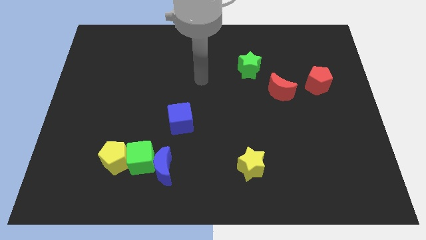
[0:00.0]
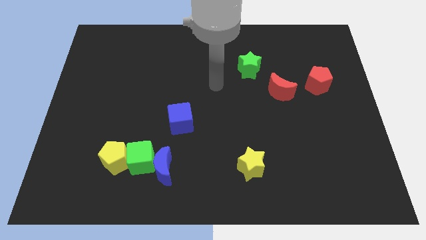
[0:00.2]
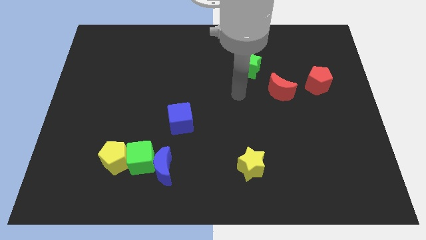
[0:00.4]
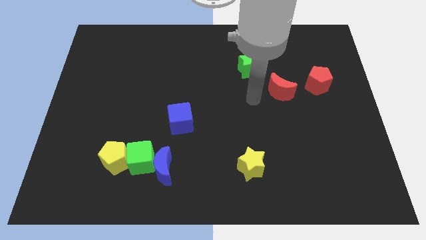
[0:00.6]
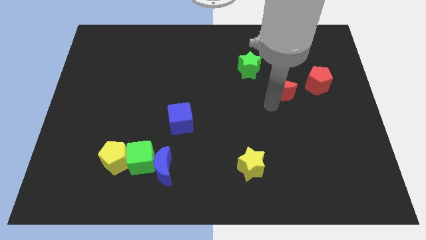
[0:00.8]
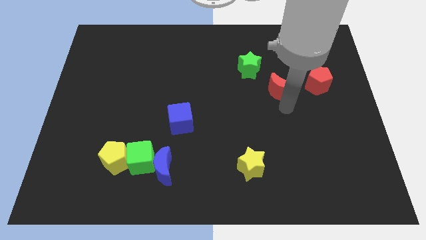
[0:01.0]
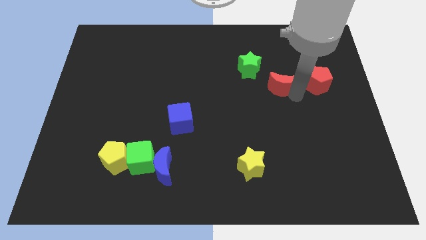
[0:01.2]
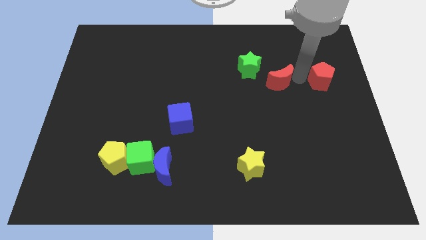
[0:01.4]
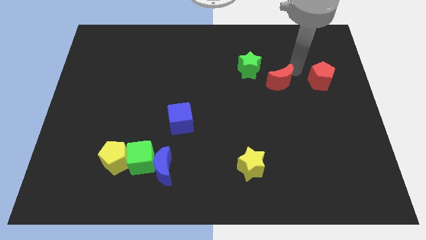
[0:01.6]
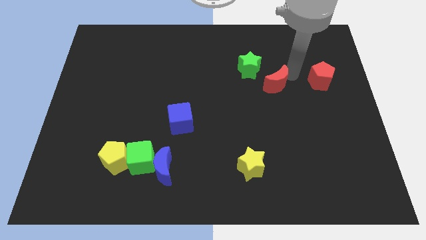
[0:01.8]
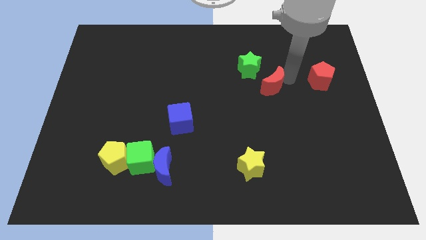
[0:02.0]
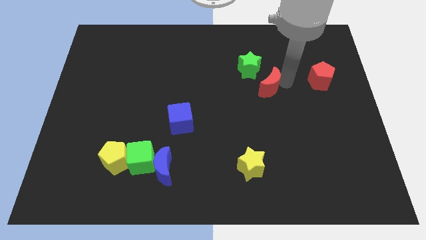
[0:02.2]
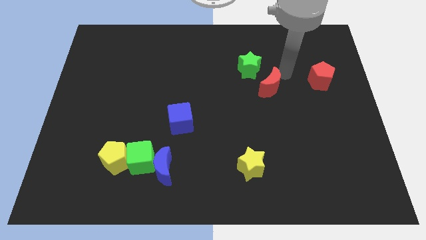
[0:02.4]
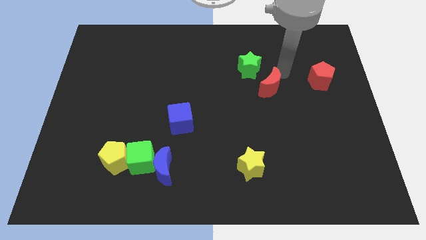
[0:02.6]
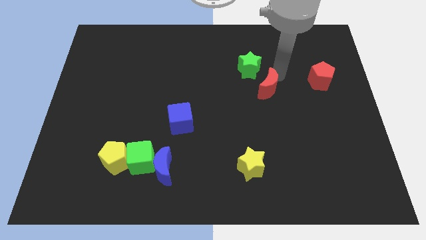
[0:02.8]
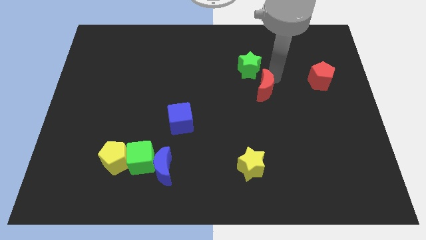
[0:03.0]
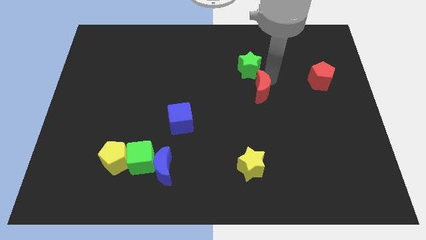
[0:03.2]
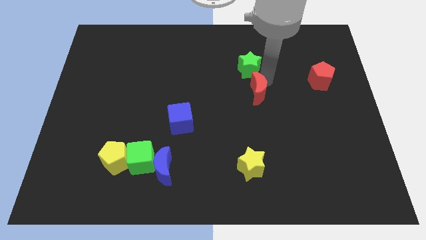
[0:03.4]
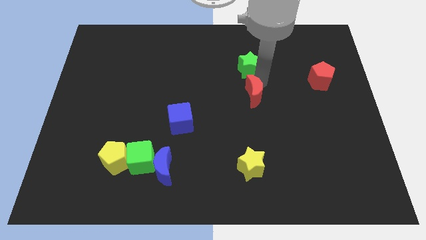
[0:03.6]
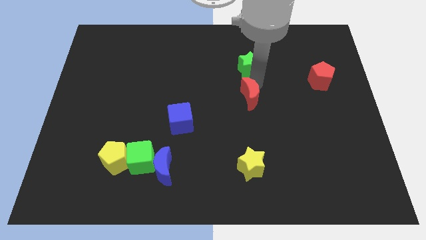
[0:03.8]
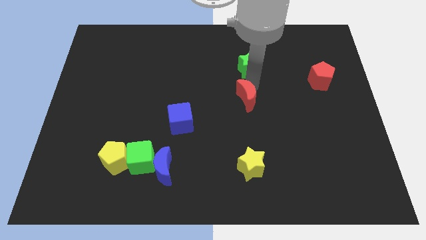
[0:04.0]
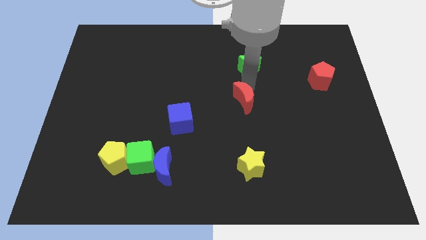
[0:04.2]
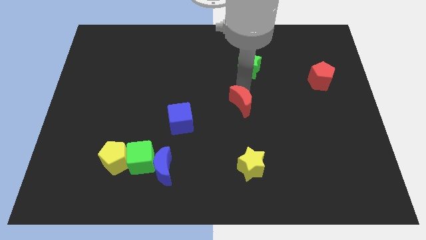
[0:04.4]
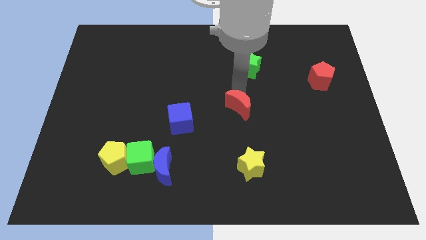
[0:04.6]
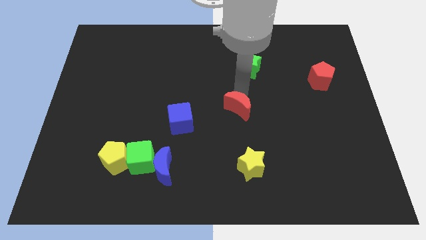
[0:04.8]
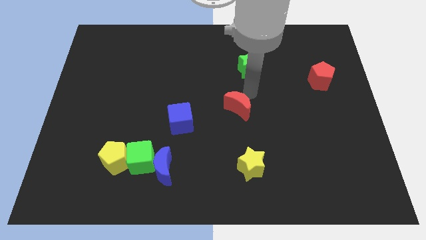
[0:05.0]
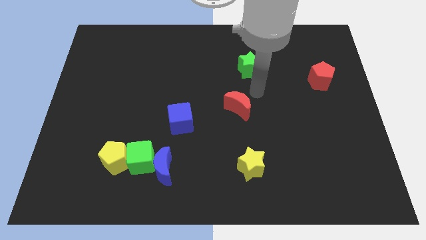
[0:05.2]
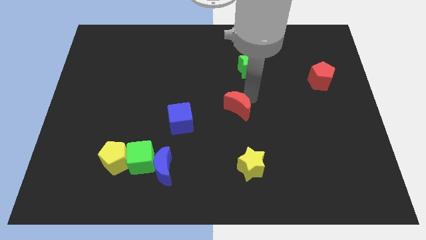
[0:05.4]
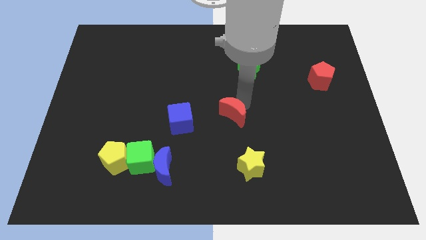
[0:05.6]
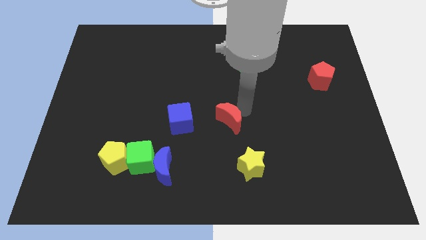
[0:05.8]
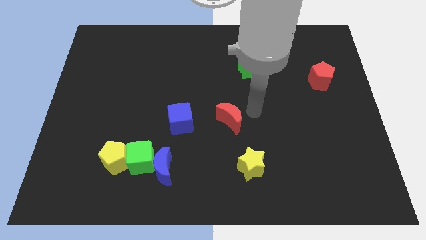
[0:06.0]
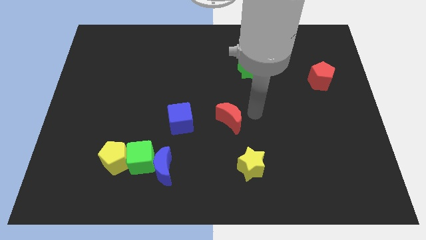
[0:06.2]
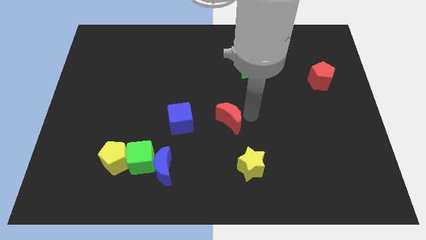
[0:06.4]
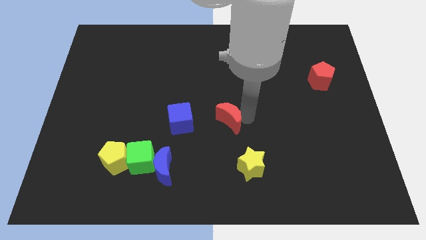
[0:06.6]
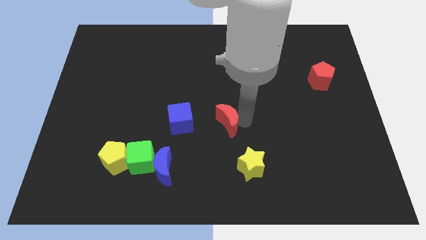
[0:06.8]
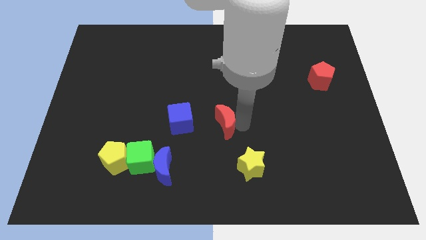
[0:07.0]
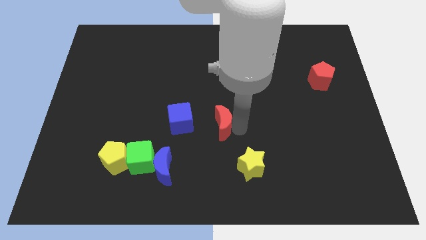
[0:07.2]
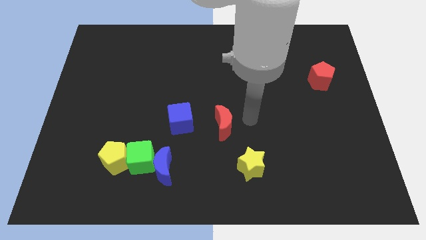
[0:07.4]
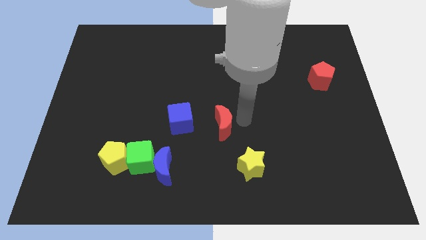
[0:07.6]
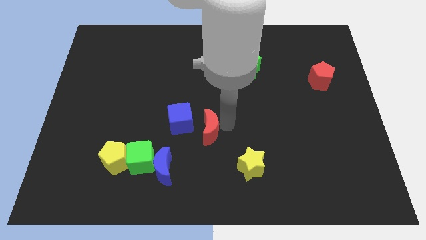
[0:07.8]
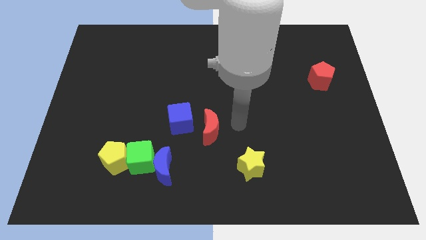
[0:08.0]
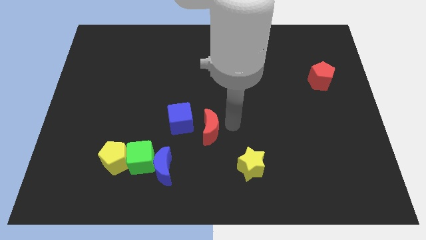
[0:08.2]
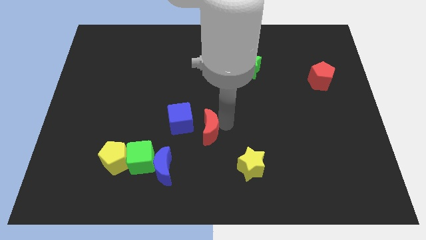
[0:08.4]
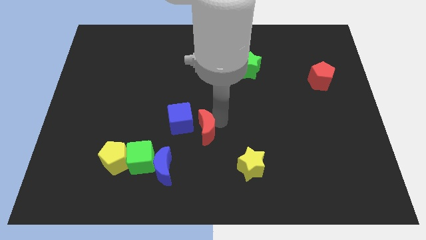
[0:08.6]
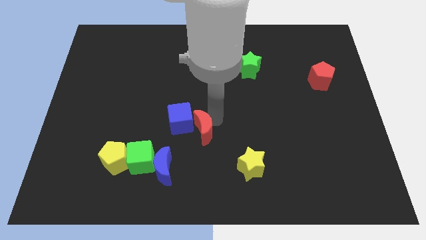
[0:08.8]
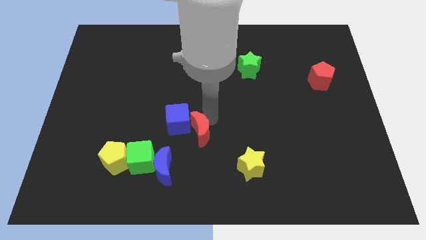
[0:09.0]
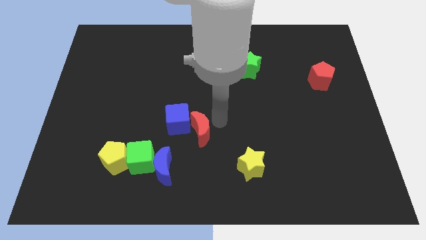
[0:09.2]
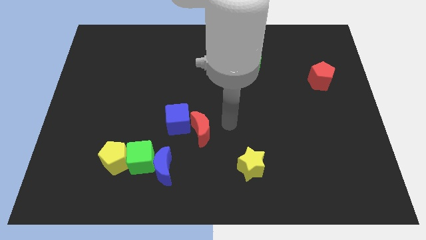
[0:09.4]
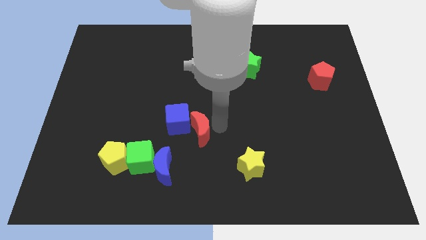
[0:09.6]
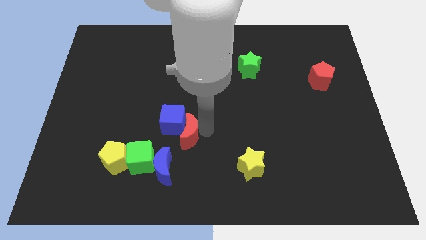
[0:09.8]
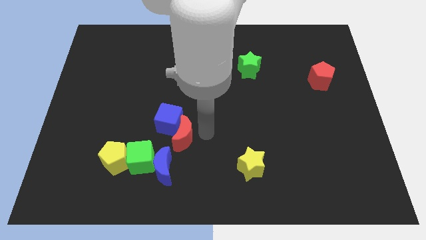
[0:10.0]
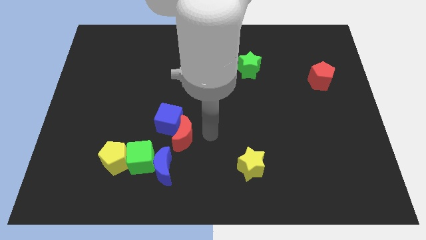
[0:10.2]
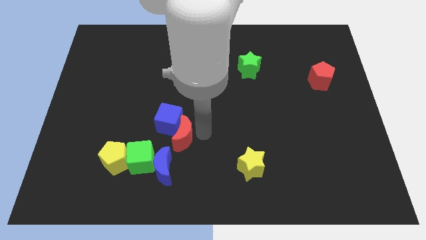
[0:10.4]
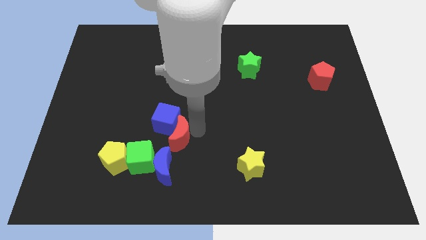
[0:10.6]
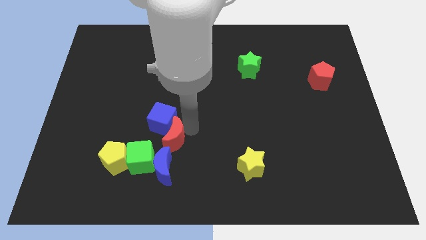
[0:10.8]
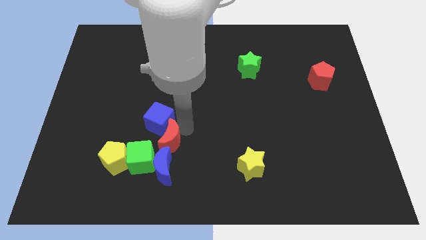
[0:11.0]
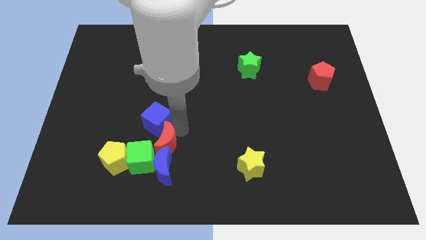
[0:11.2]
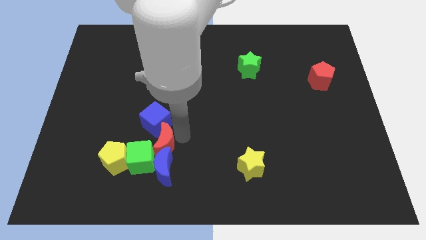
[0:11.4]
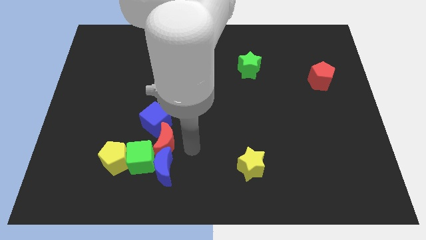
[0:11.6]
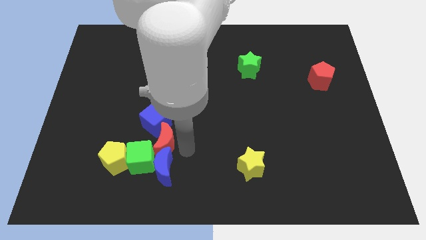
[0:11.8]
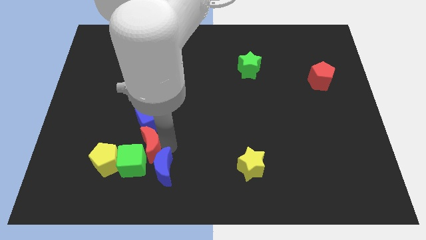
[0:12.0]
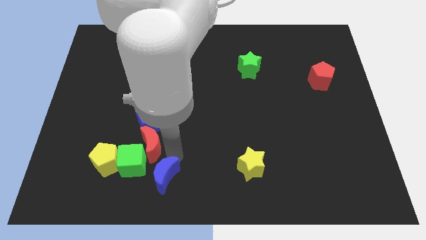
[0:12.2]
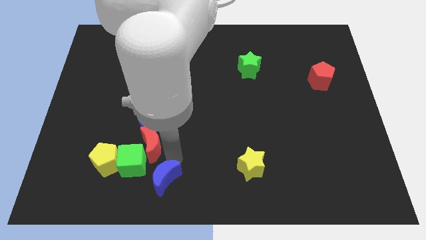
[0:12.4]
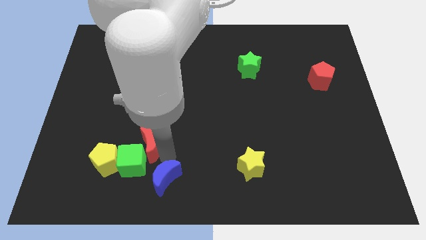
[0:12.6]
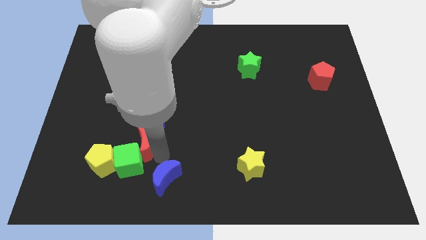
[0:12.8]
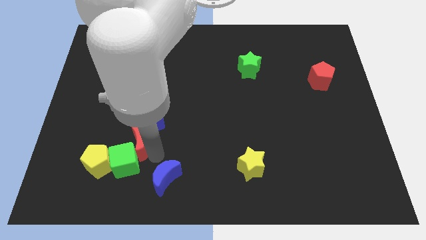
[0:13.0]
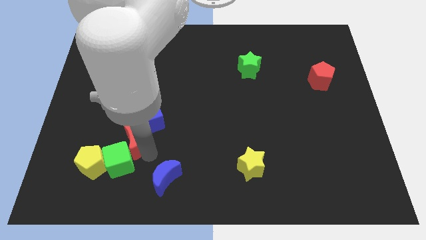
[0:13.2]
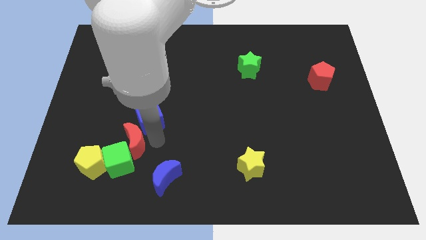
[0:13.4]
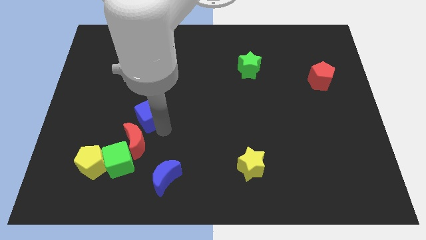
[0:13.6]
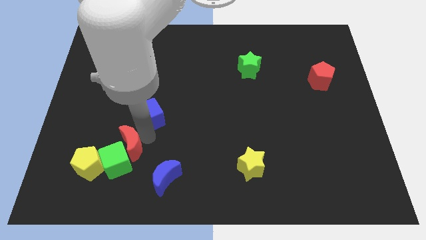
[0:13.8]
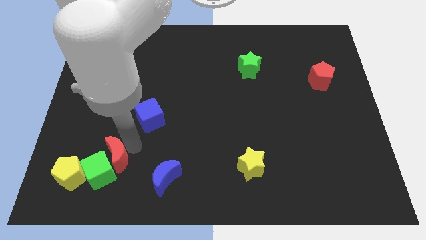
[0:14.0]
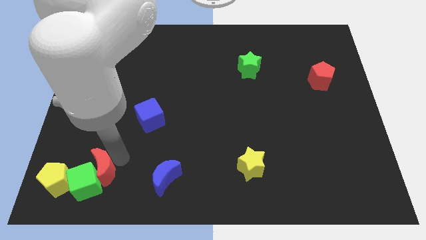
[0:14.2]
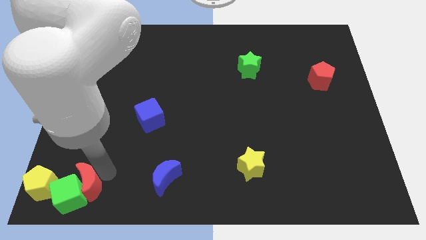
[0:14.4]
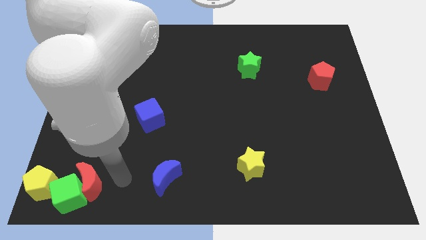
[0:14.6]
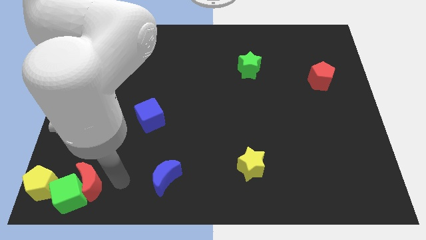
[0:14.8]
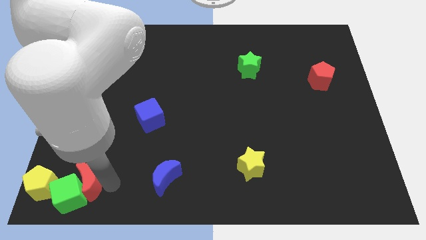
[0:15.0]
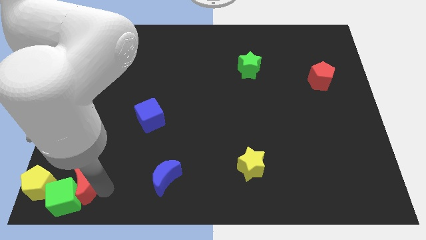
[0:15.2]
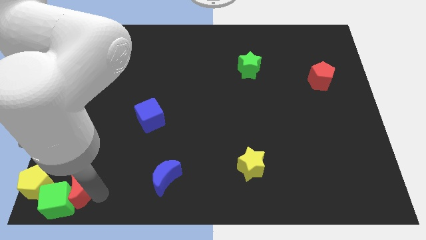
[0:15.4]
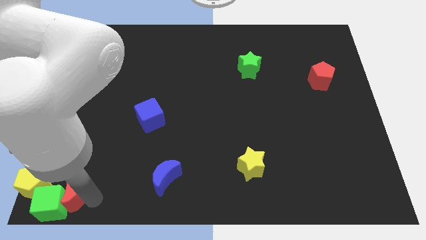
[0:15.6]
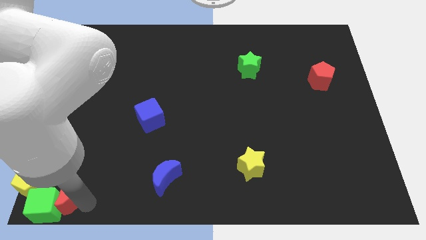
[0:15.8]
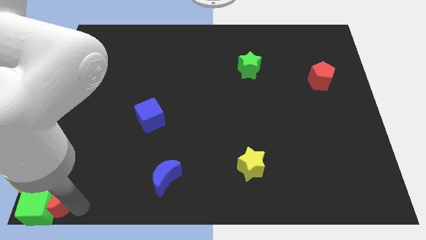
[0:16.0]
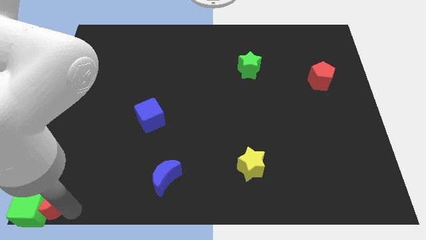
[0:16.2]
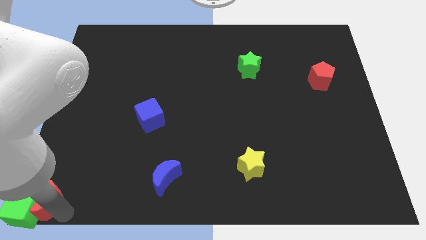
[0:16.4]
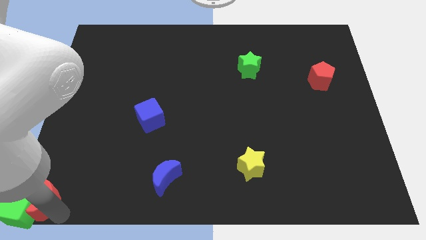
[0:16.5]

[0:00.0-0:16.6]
slide the red moon towards the yellow pentagon
